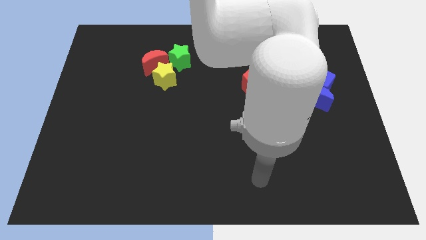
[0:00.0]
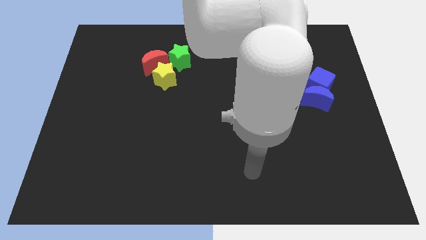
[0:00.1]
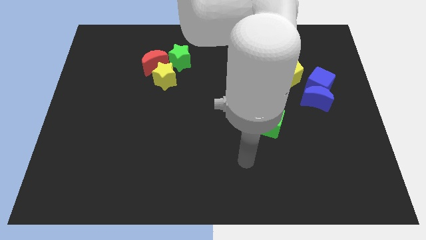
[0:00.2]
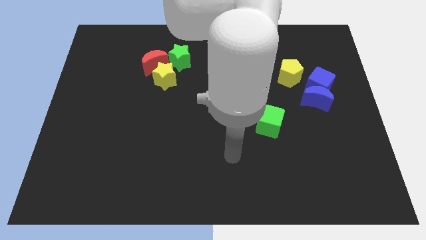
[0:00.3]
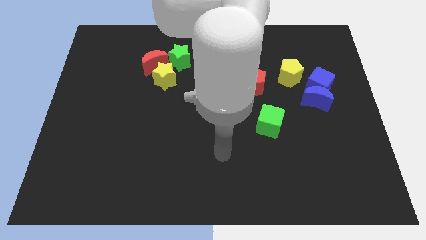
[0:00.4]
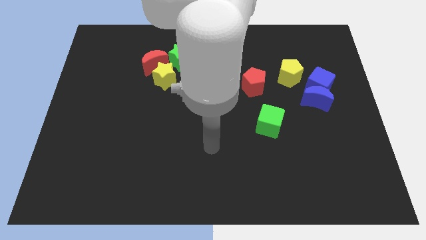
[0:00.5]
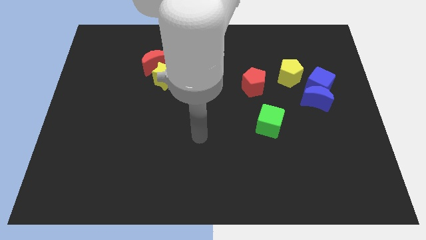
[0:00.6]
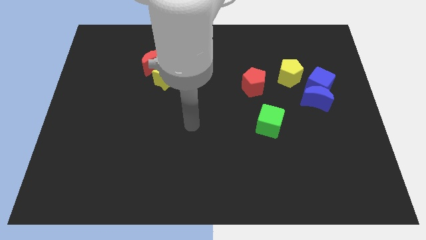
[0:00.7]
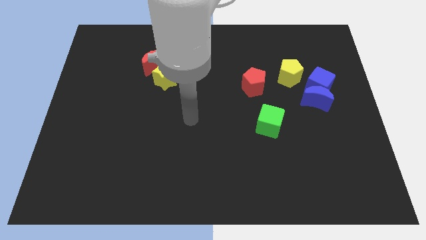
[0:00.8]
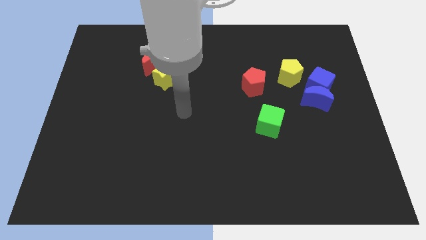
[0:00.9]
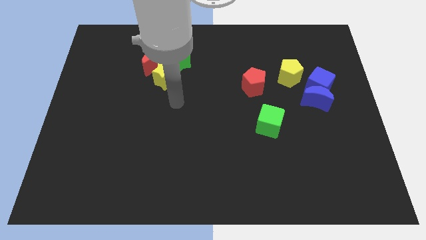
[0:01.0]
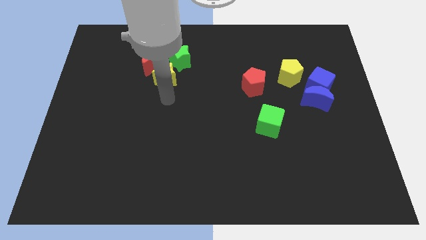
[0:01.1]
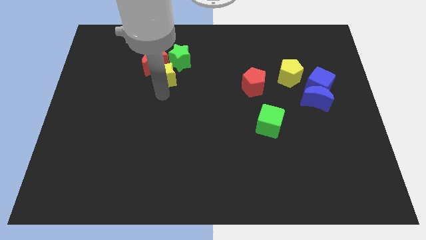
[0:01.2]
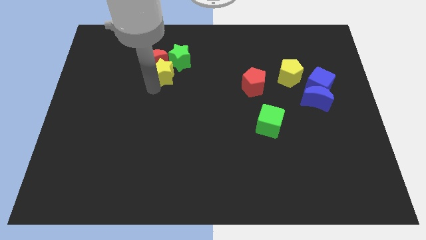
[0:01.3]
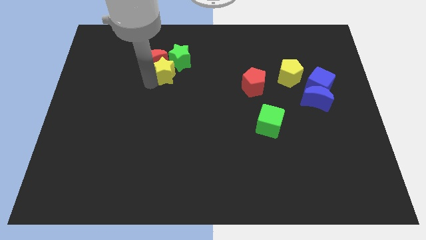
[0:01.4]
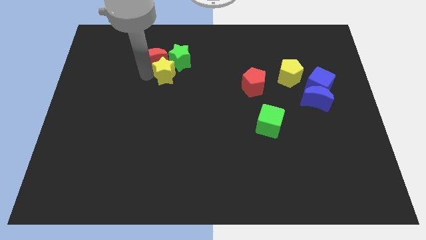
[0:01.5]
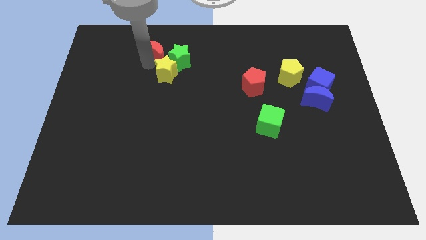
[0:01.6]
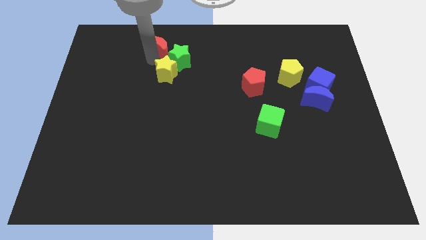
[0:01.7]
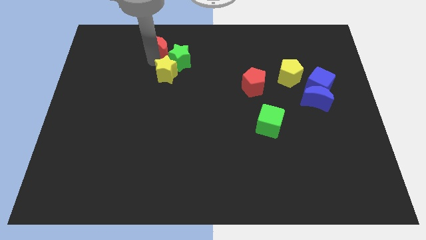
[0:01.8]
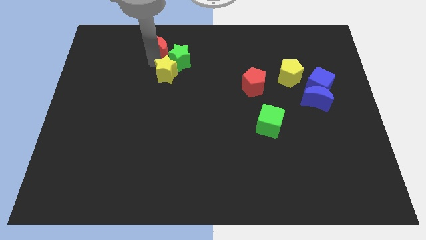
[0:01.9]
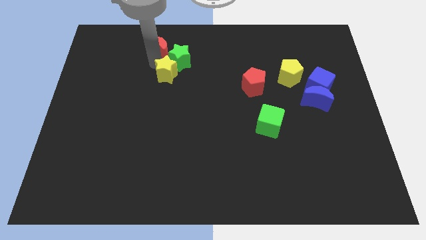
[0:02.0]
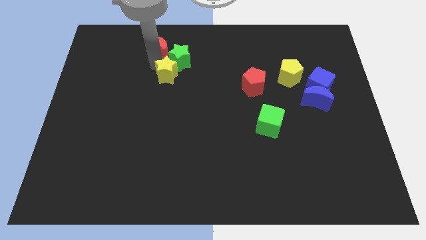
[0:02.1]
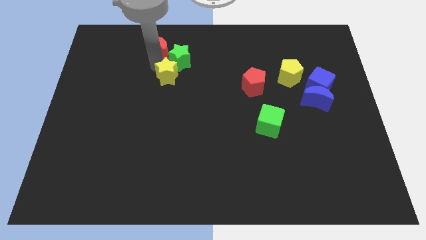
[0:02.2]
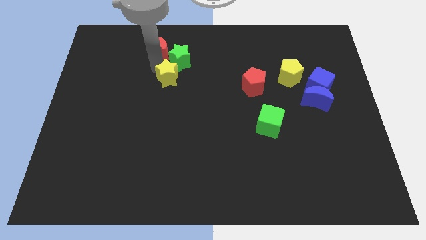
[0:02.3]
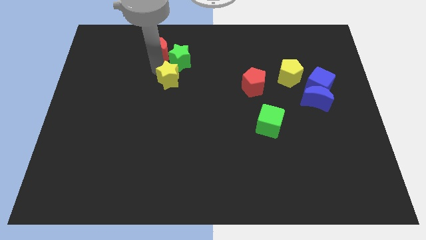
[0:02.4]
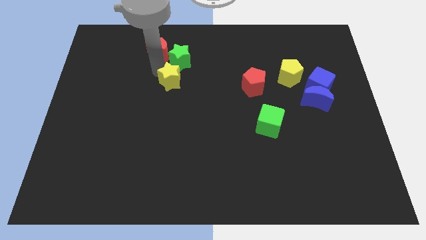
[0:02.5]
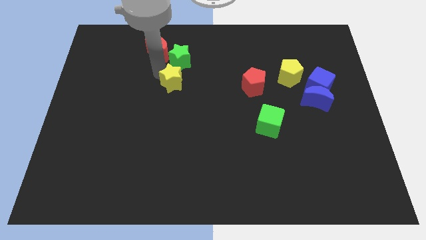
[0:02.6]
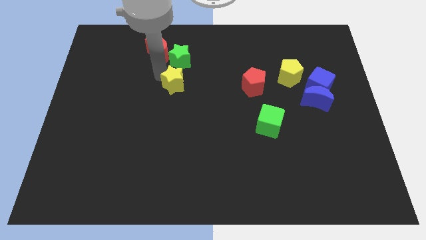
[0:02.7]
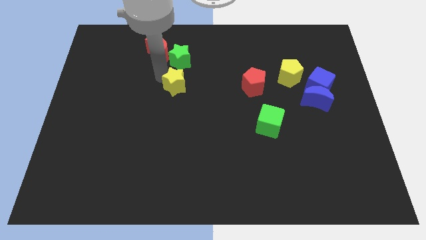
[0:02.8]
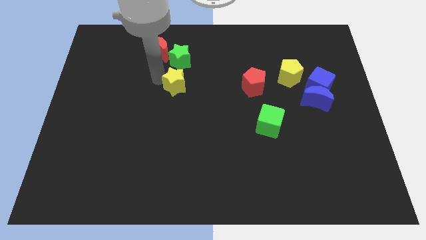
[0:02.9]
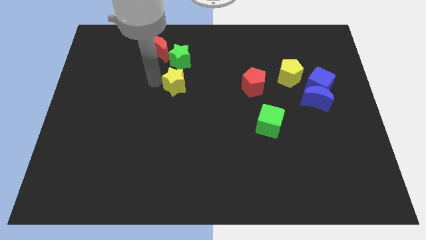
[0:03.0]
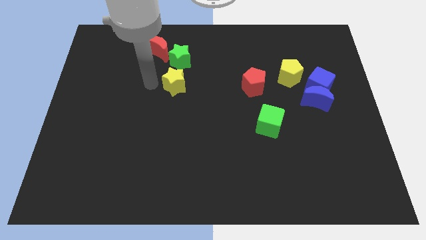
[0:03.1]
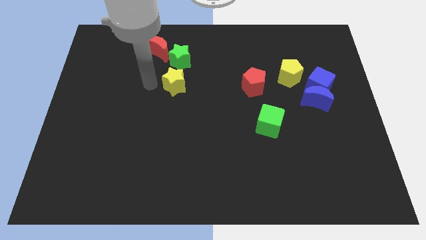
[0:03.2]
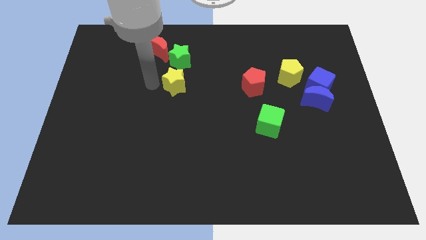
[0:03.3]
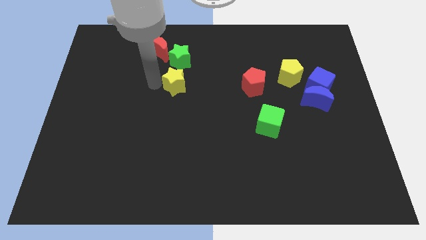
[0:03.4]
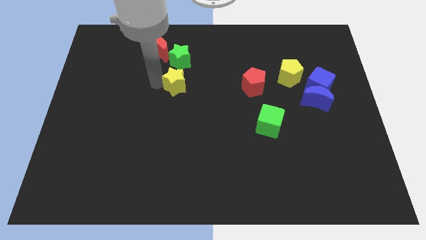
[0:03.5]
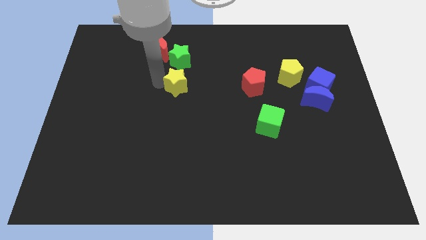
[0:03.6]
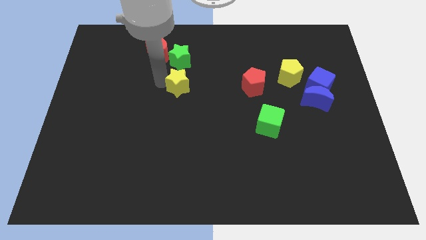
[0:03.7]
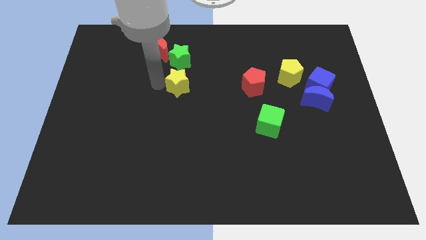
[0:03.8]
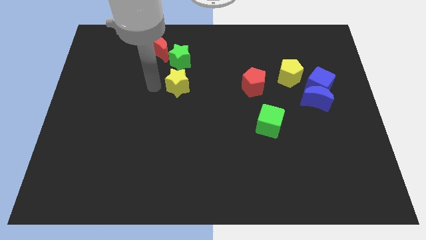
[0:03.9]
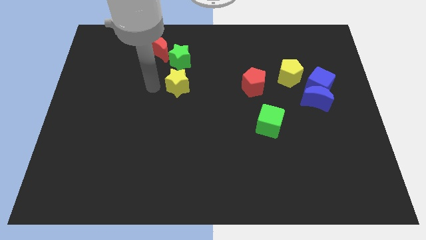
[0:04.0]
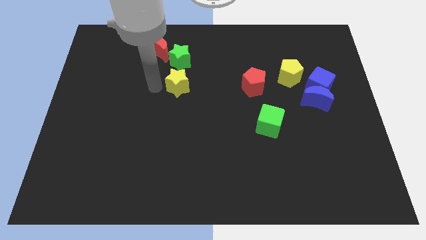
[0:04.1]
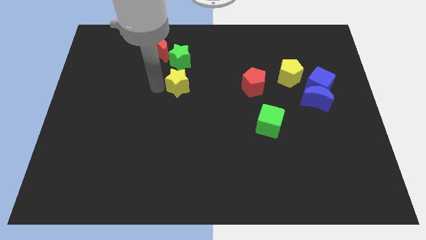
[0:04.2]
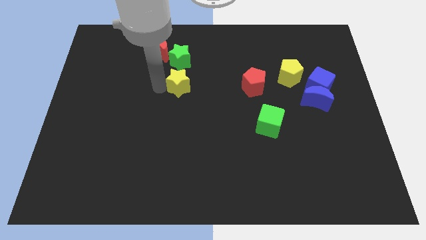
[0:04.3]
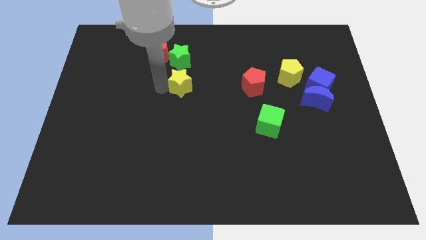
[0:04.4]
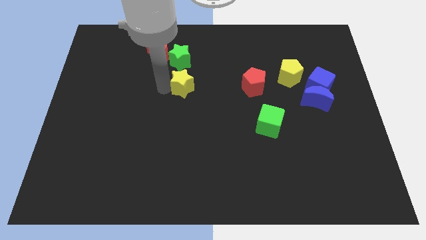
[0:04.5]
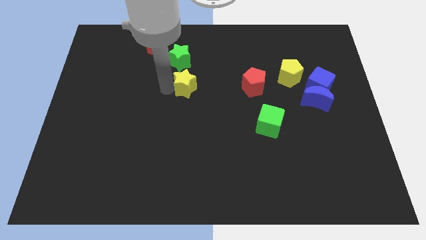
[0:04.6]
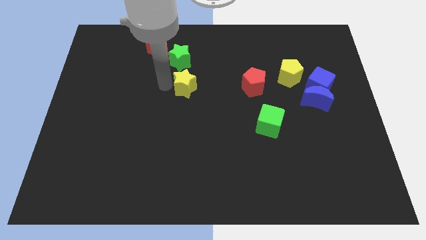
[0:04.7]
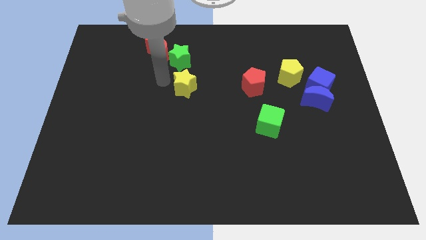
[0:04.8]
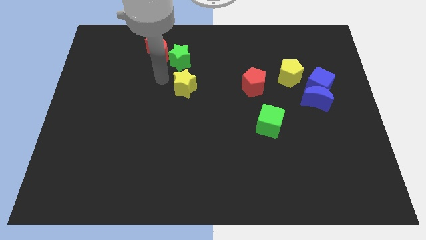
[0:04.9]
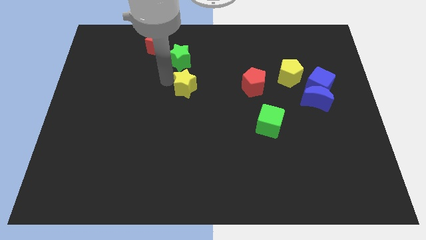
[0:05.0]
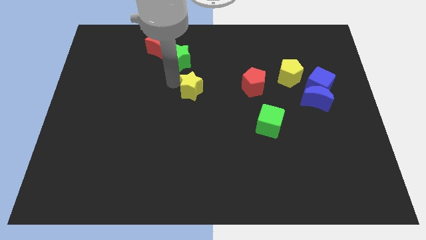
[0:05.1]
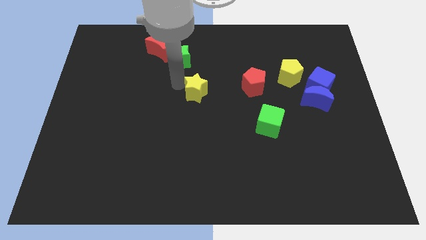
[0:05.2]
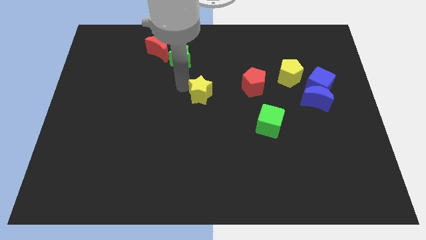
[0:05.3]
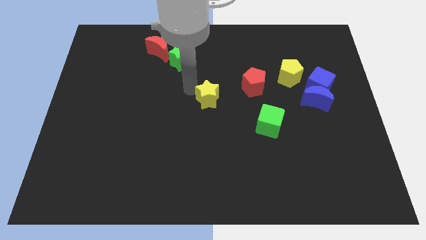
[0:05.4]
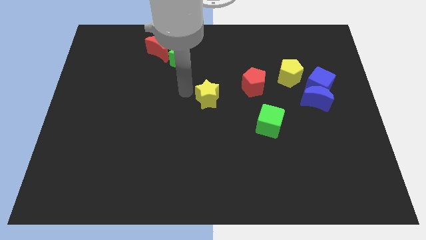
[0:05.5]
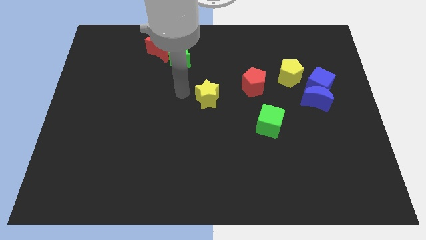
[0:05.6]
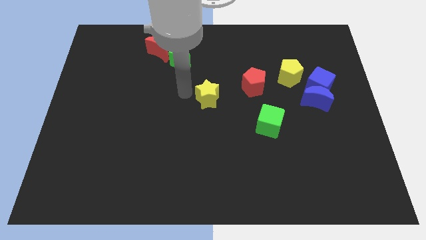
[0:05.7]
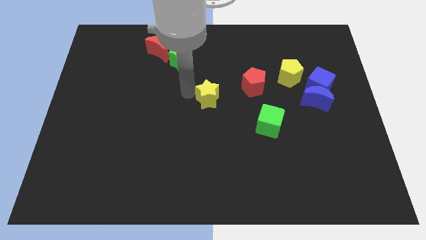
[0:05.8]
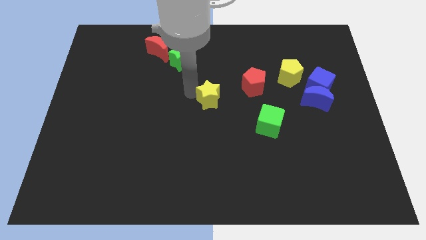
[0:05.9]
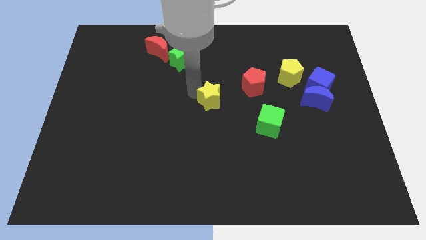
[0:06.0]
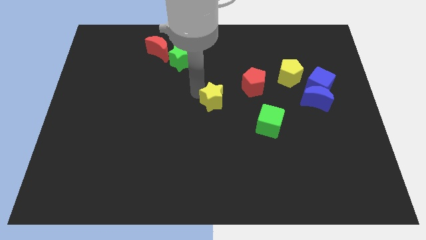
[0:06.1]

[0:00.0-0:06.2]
slide the yellow star to the bottom left of the red pentagon
